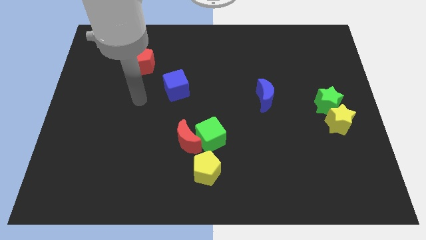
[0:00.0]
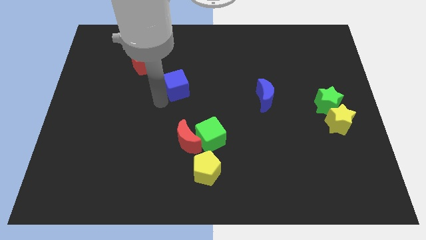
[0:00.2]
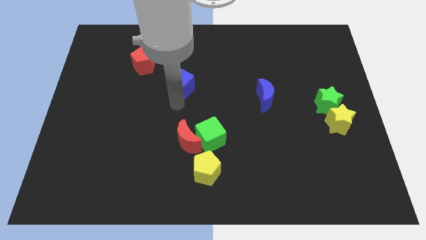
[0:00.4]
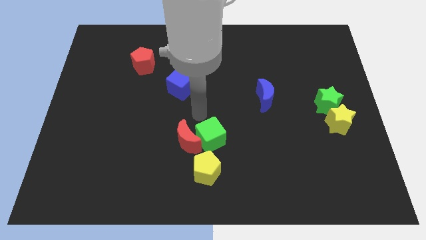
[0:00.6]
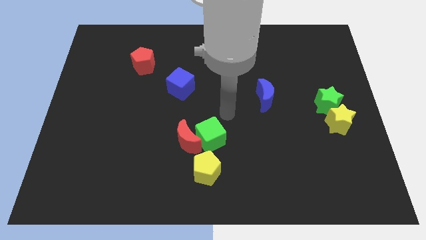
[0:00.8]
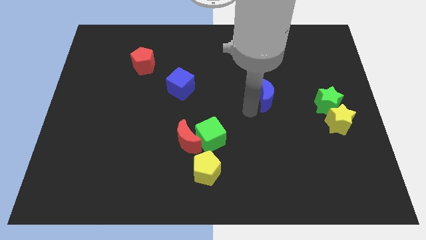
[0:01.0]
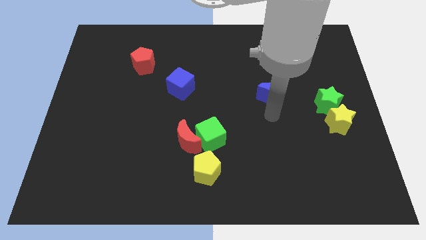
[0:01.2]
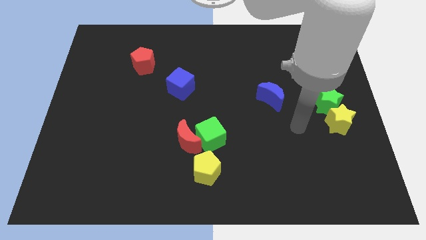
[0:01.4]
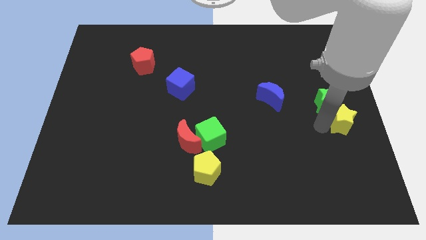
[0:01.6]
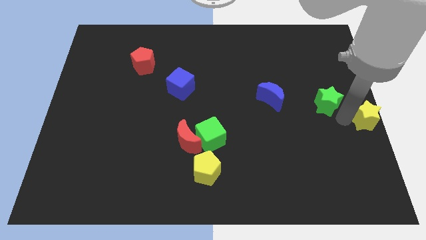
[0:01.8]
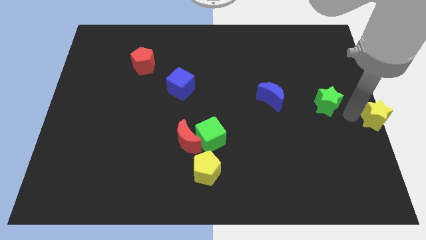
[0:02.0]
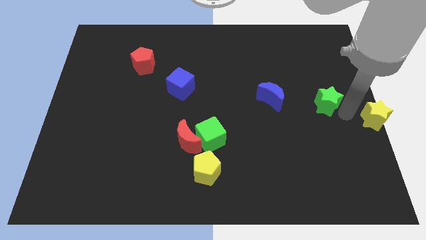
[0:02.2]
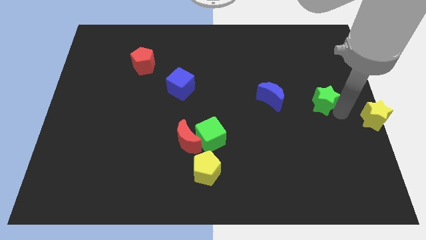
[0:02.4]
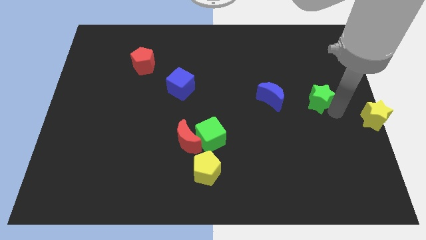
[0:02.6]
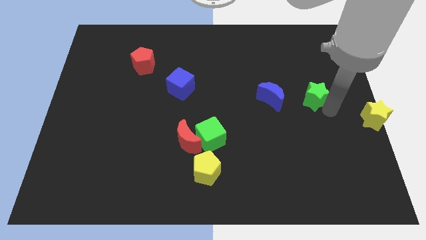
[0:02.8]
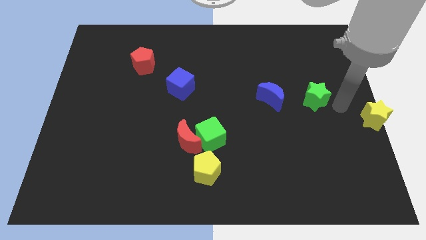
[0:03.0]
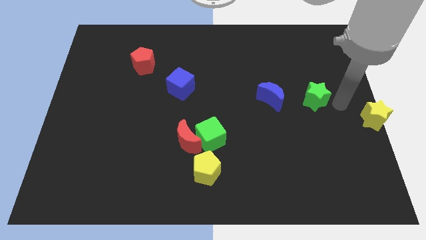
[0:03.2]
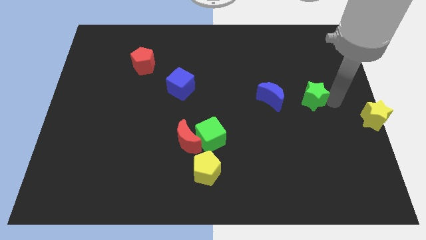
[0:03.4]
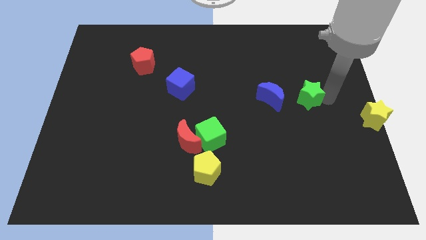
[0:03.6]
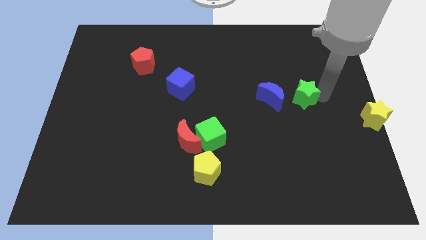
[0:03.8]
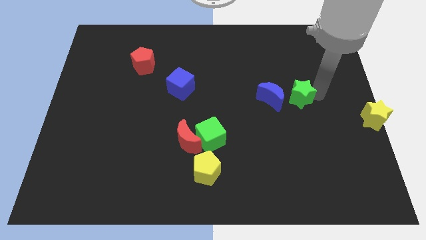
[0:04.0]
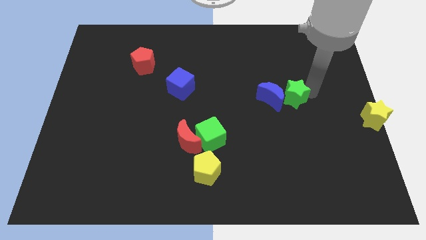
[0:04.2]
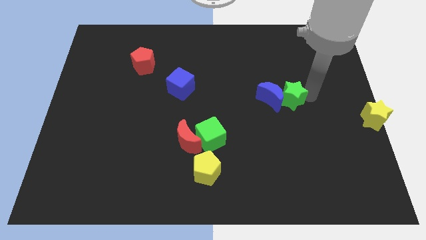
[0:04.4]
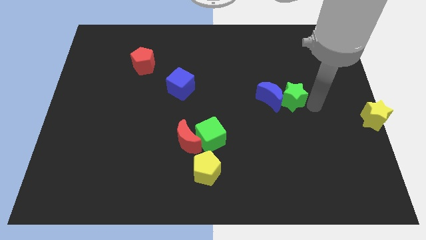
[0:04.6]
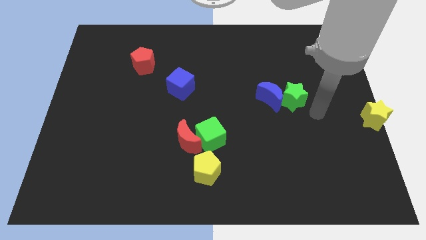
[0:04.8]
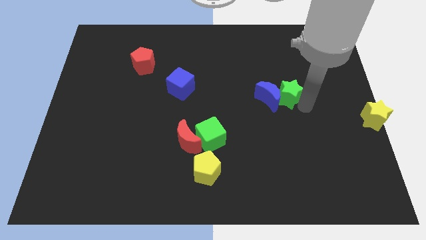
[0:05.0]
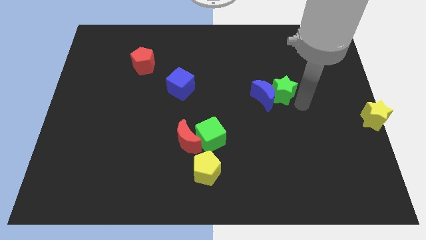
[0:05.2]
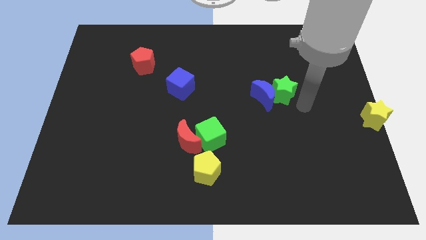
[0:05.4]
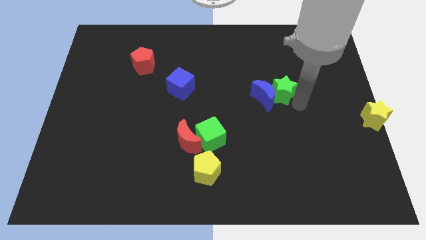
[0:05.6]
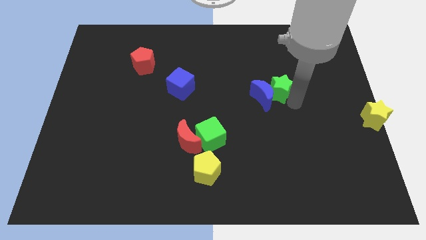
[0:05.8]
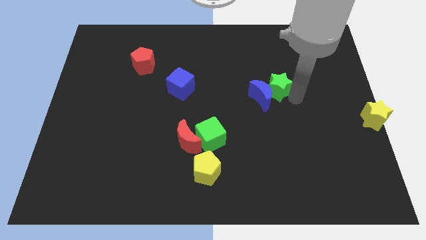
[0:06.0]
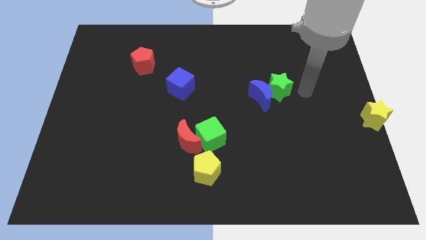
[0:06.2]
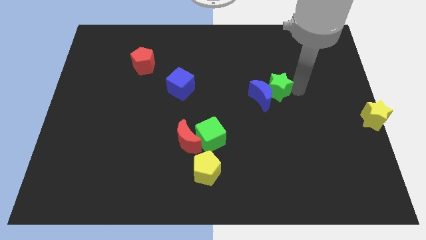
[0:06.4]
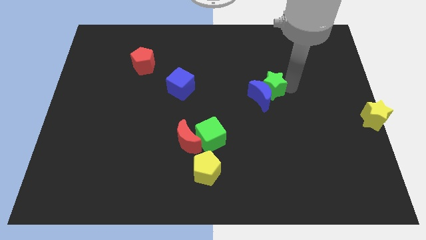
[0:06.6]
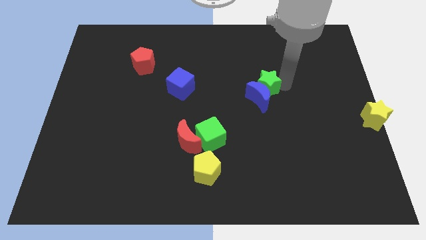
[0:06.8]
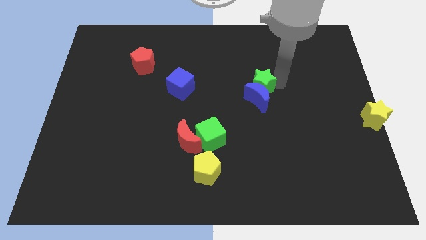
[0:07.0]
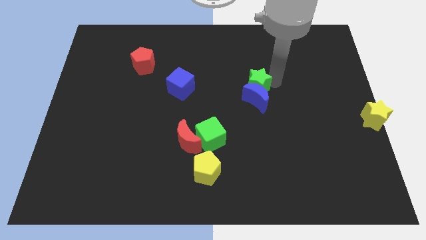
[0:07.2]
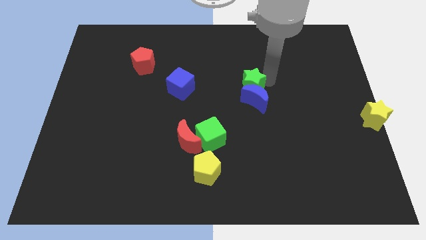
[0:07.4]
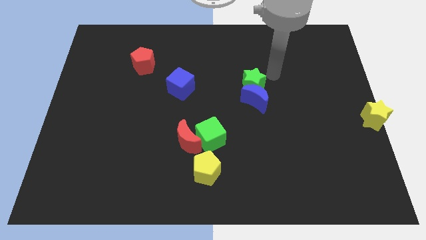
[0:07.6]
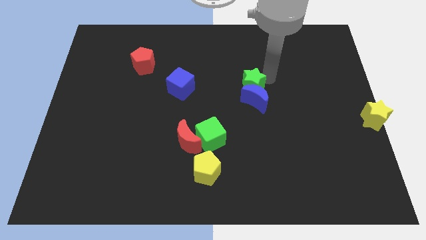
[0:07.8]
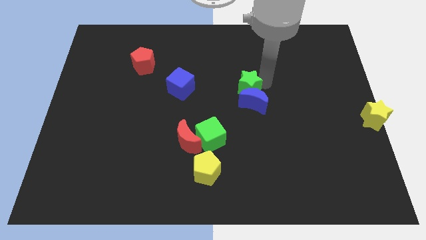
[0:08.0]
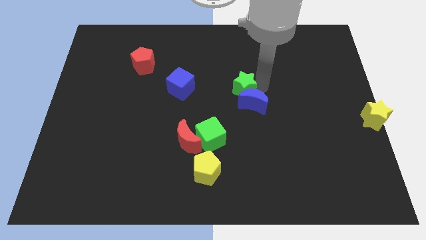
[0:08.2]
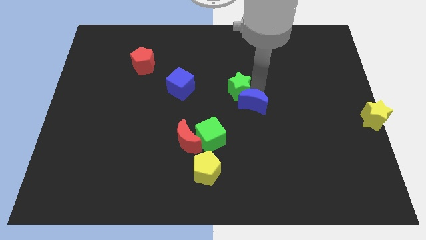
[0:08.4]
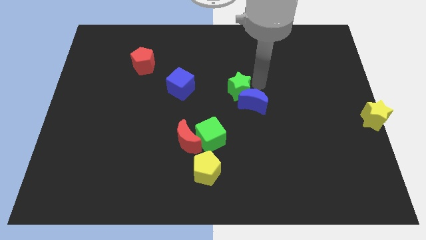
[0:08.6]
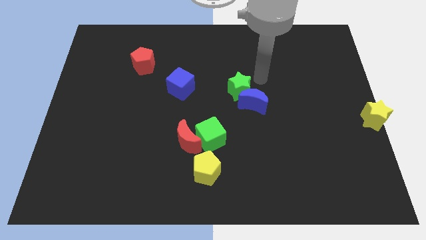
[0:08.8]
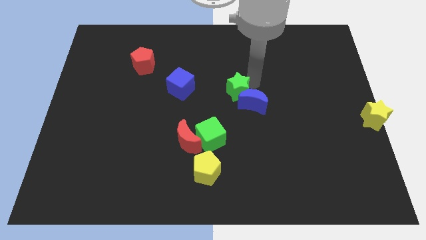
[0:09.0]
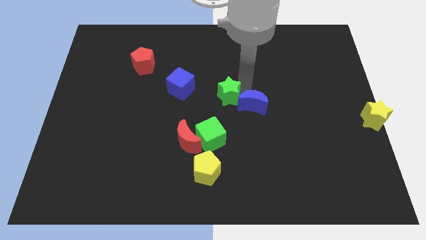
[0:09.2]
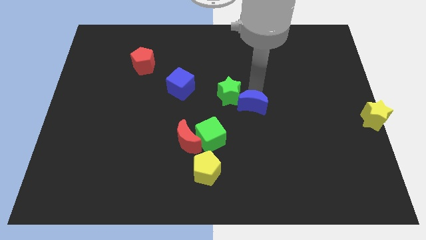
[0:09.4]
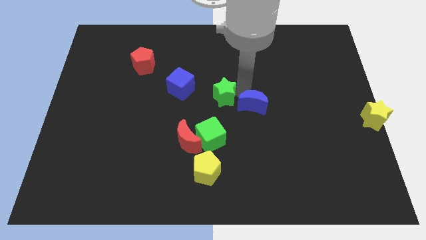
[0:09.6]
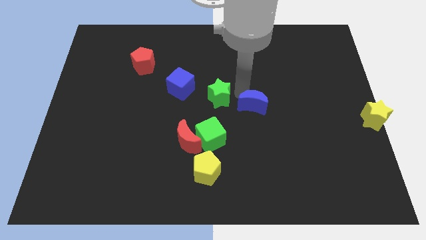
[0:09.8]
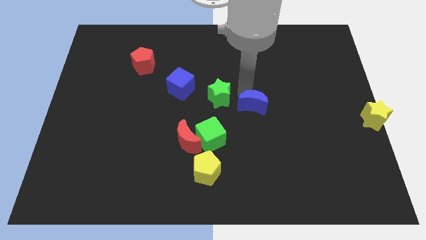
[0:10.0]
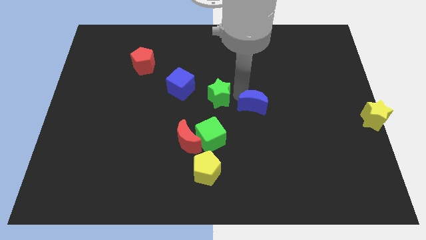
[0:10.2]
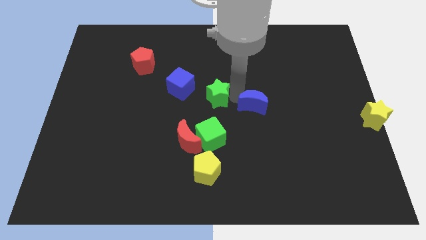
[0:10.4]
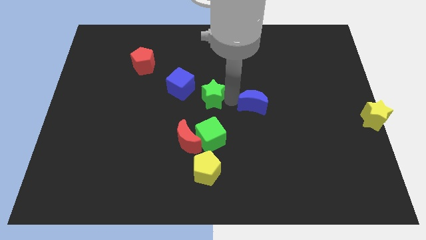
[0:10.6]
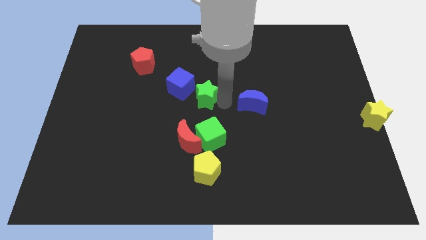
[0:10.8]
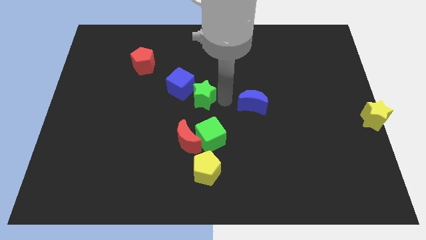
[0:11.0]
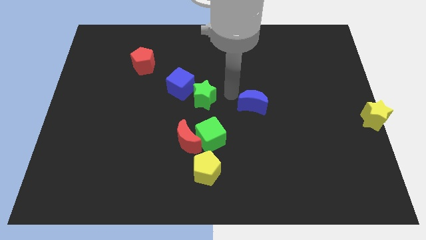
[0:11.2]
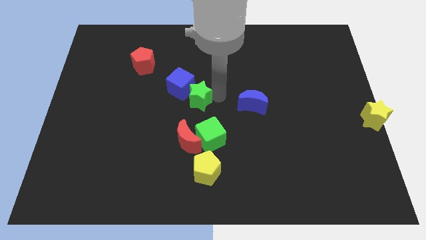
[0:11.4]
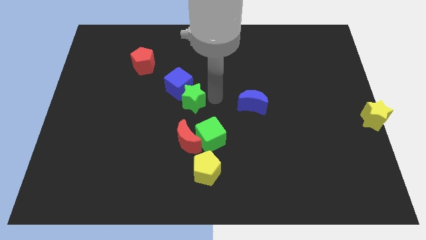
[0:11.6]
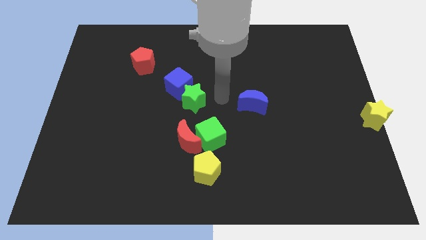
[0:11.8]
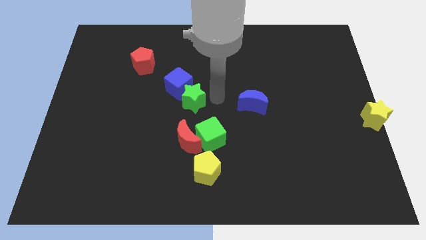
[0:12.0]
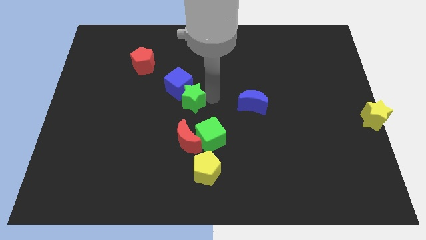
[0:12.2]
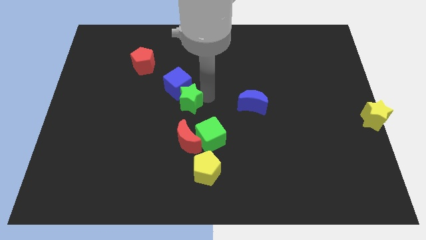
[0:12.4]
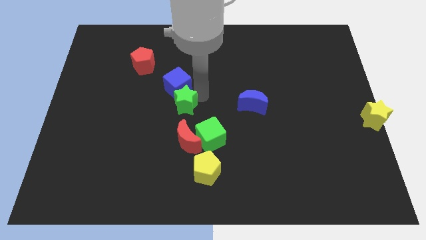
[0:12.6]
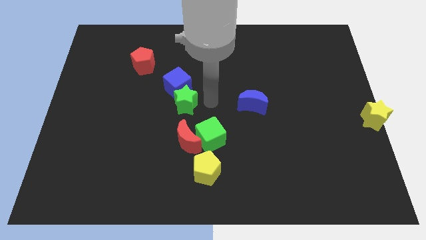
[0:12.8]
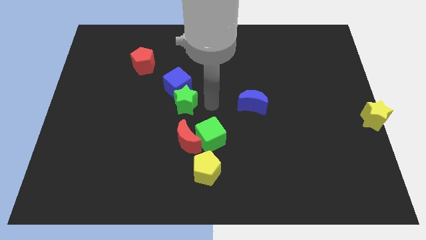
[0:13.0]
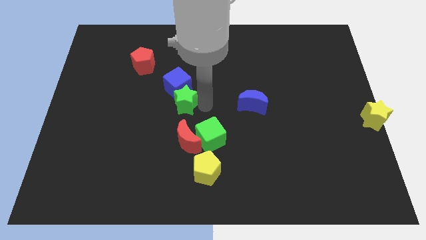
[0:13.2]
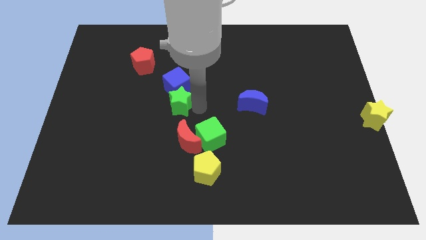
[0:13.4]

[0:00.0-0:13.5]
slide the green star to the bottom left of the blue cube
